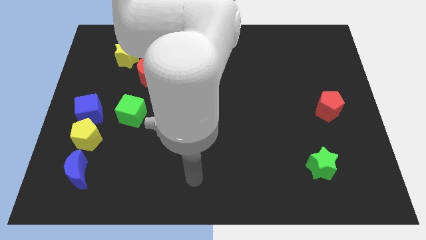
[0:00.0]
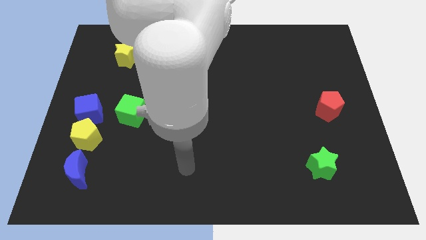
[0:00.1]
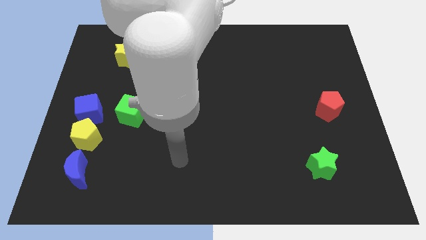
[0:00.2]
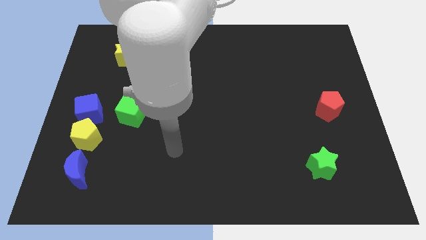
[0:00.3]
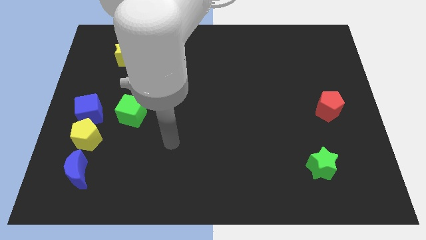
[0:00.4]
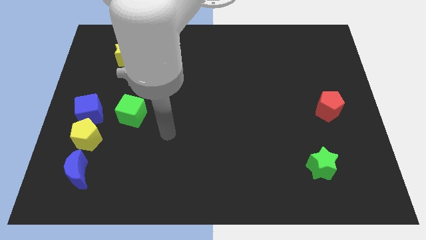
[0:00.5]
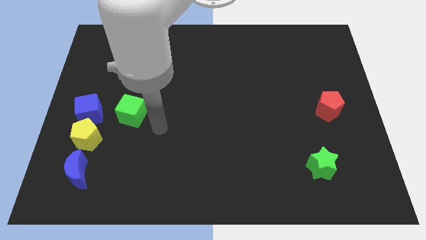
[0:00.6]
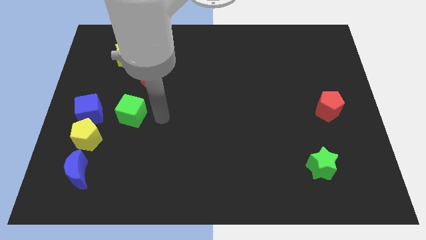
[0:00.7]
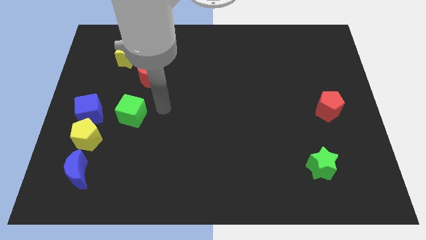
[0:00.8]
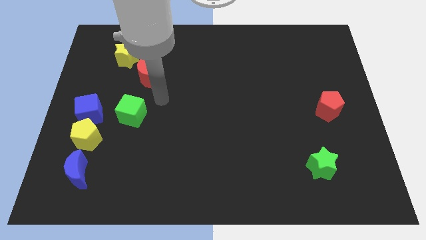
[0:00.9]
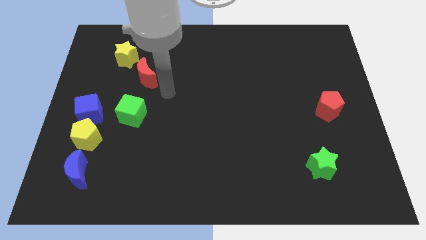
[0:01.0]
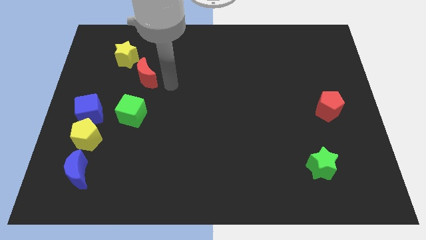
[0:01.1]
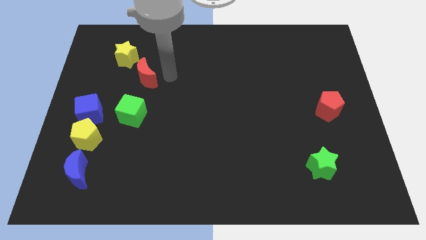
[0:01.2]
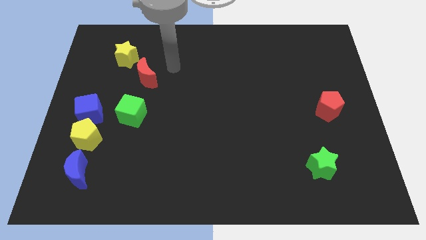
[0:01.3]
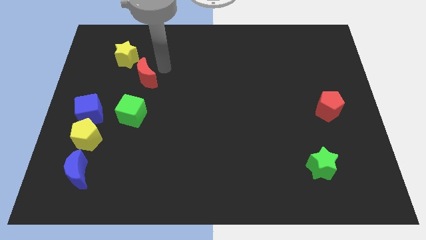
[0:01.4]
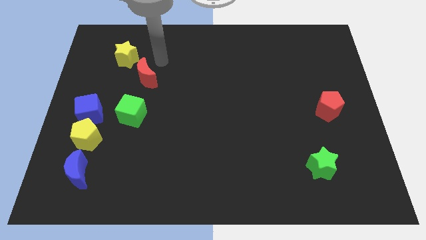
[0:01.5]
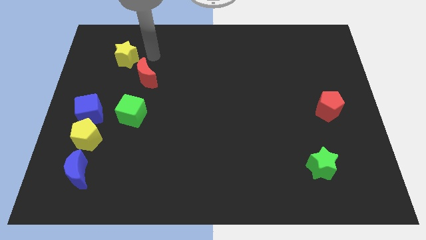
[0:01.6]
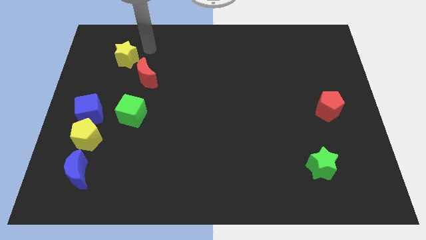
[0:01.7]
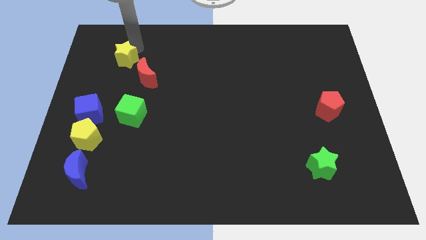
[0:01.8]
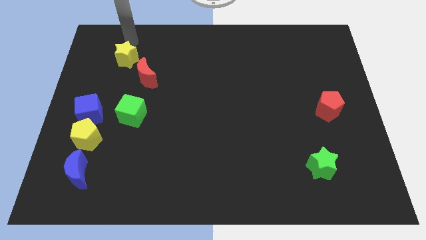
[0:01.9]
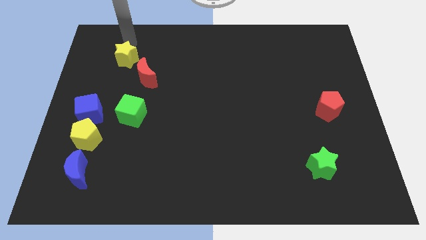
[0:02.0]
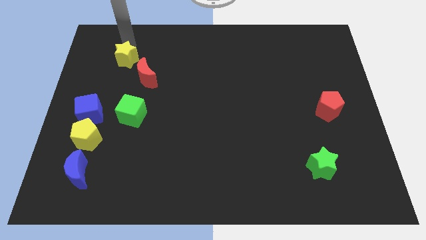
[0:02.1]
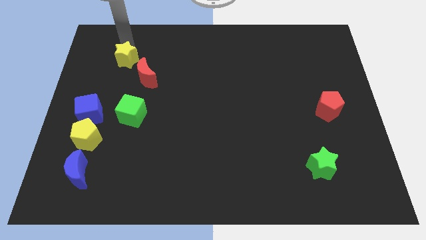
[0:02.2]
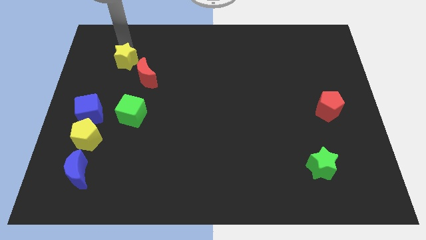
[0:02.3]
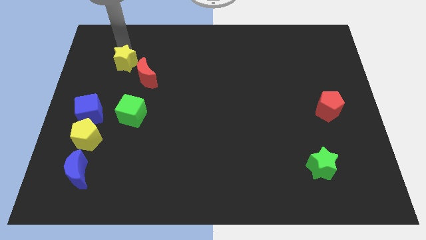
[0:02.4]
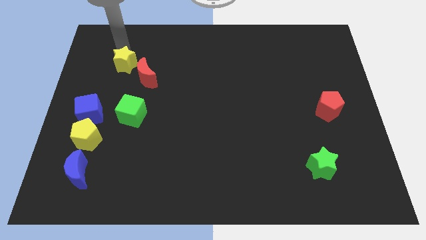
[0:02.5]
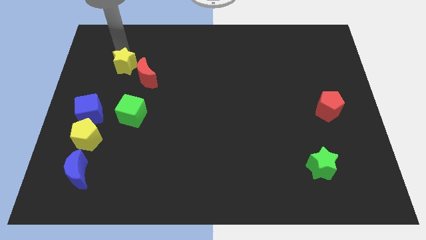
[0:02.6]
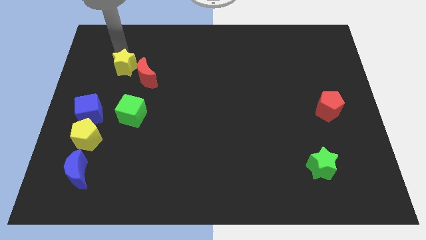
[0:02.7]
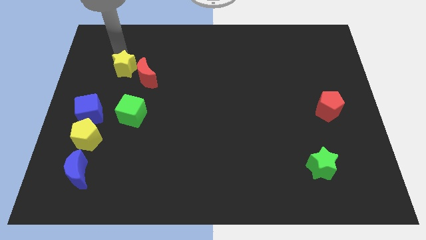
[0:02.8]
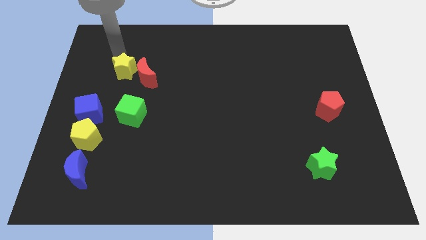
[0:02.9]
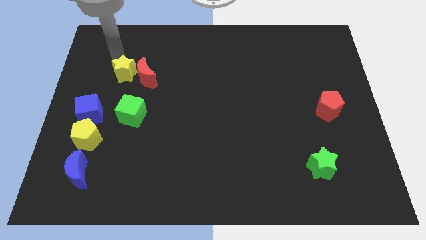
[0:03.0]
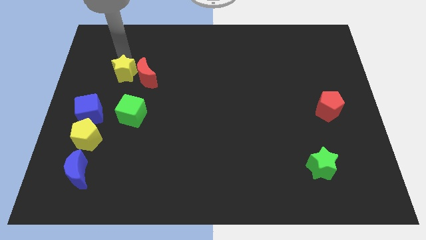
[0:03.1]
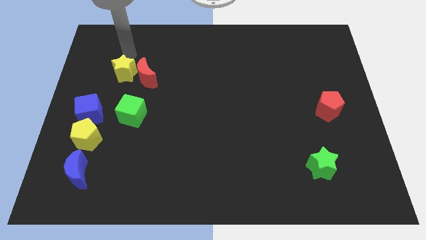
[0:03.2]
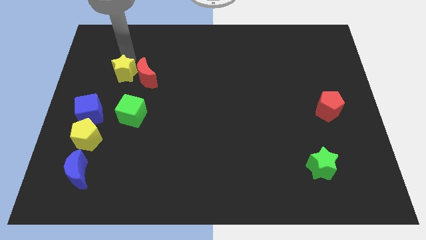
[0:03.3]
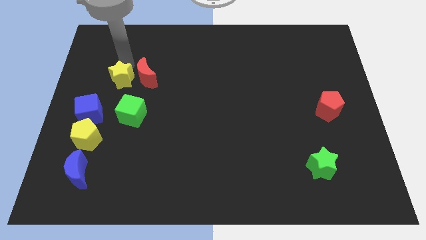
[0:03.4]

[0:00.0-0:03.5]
push the yellow star downwards a little

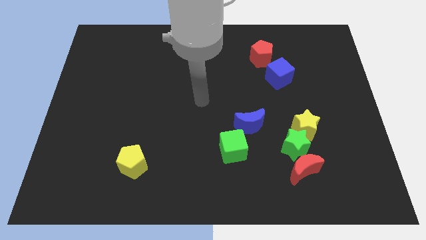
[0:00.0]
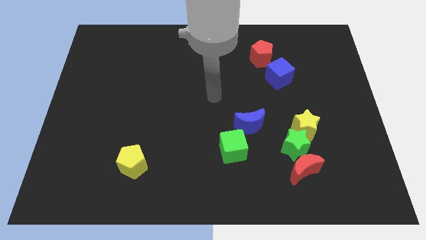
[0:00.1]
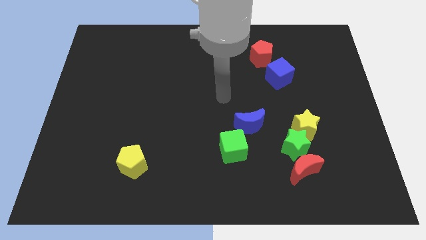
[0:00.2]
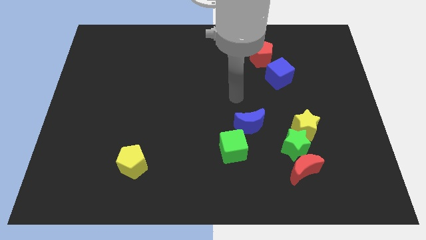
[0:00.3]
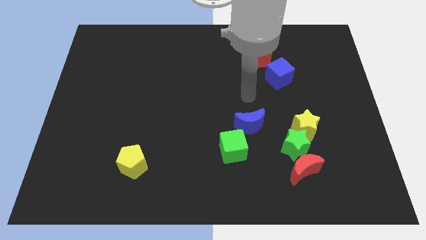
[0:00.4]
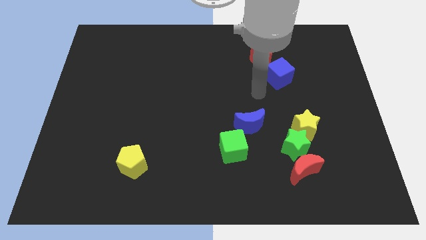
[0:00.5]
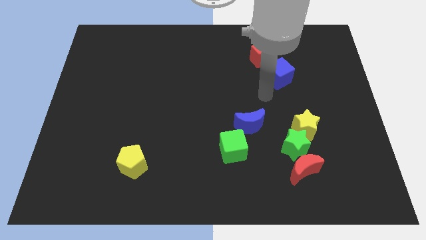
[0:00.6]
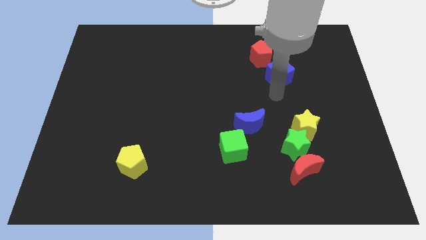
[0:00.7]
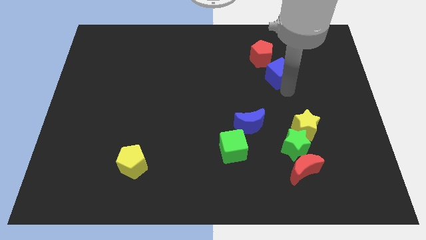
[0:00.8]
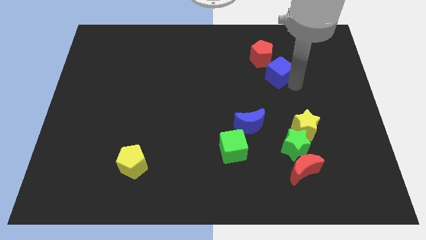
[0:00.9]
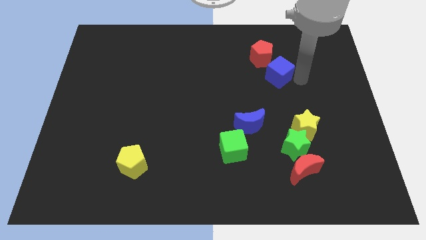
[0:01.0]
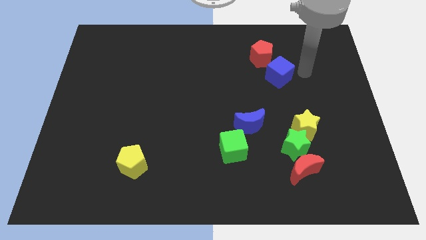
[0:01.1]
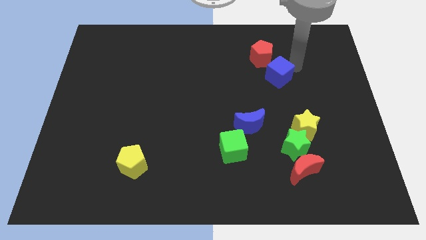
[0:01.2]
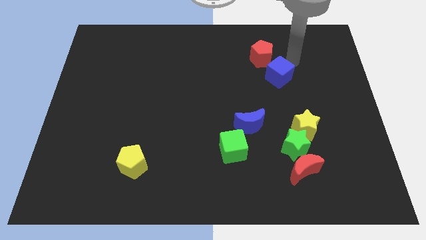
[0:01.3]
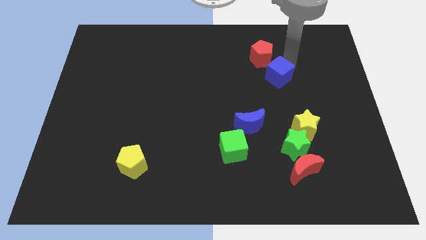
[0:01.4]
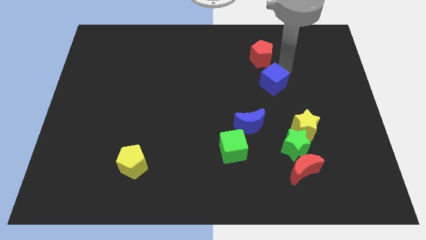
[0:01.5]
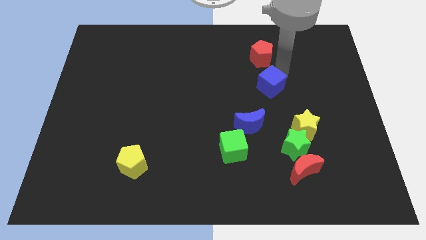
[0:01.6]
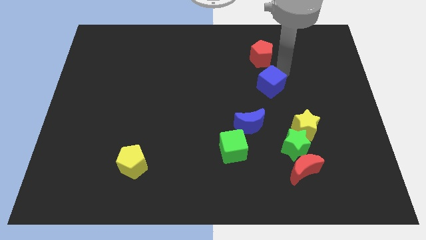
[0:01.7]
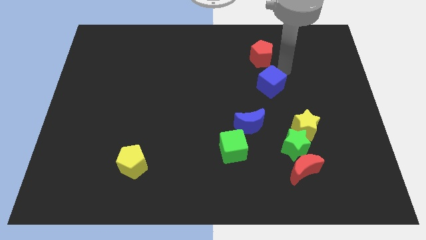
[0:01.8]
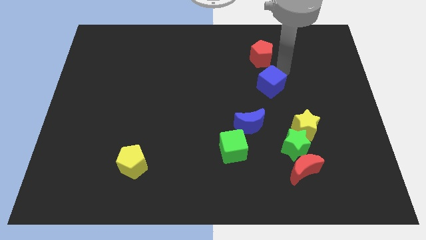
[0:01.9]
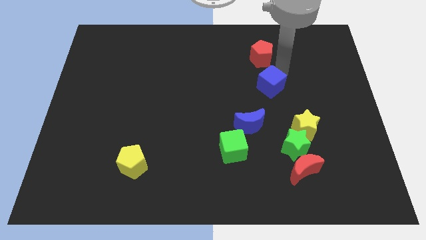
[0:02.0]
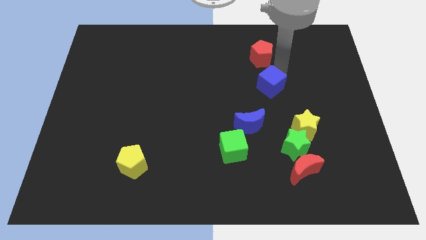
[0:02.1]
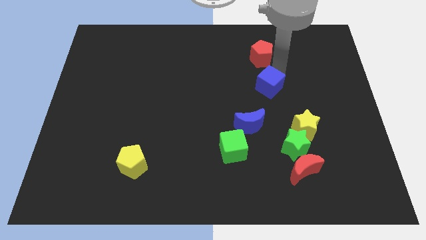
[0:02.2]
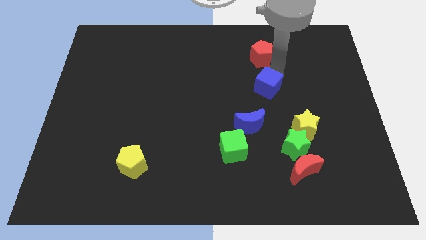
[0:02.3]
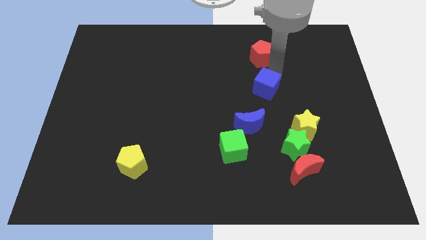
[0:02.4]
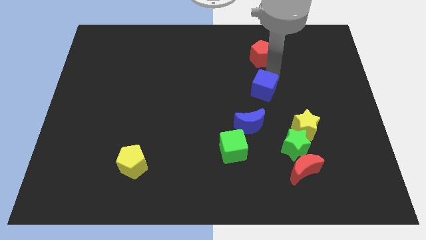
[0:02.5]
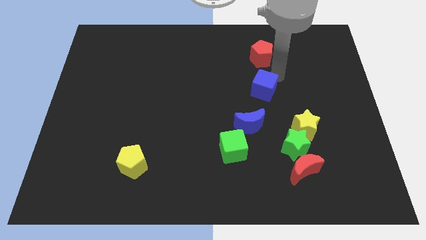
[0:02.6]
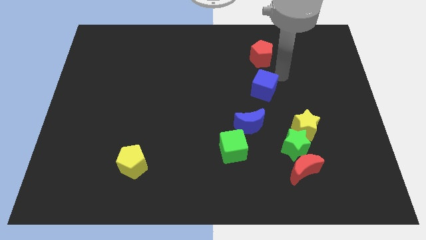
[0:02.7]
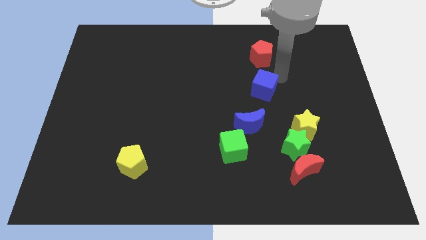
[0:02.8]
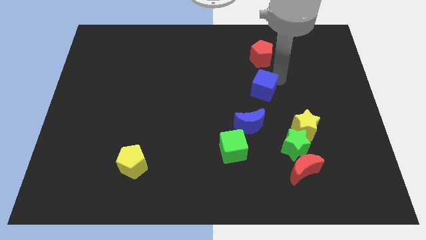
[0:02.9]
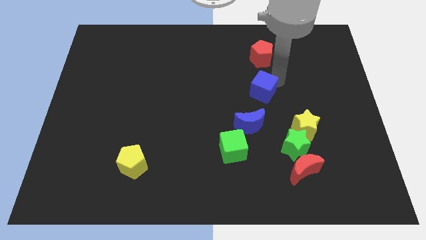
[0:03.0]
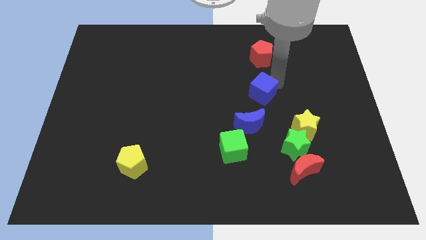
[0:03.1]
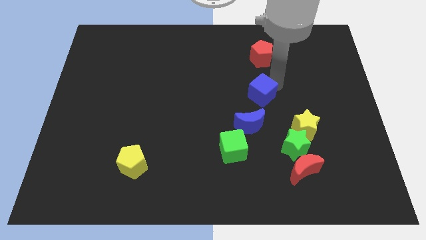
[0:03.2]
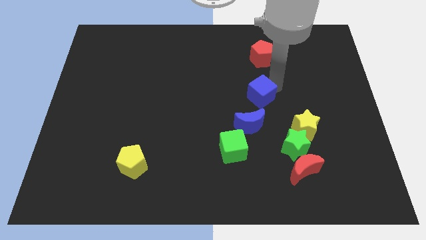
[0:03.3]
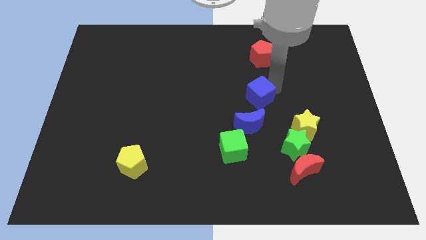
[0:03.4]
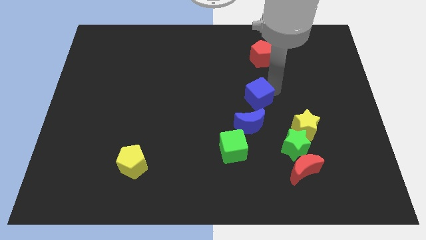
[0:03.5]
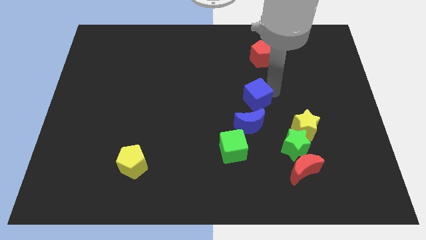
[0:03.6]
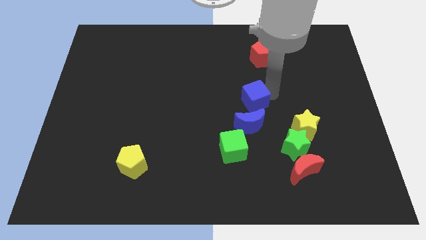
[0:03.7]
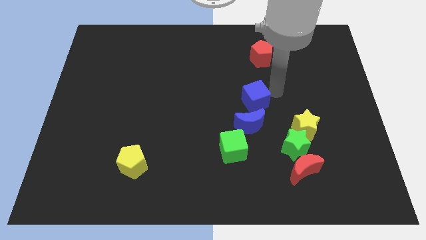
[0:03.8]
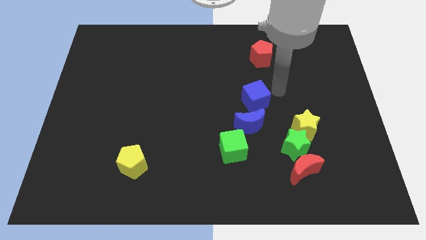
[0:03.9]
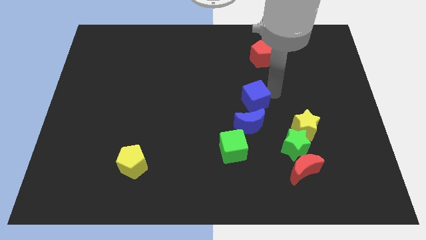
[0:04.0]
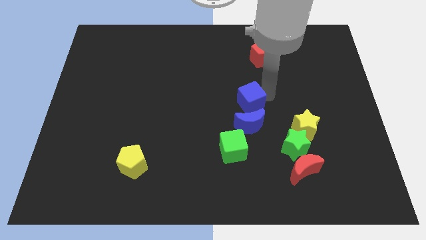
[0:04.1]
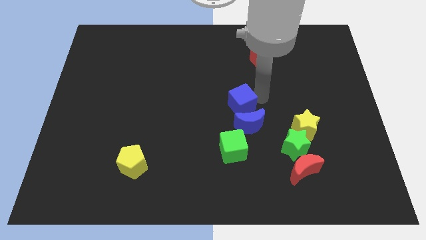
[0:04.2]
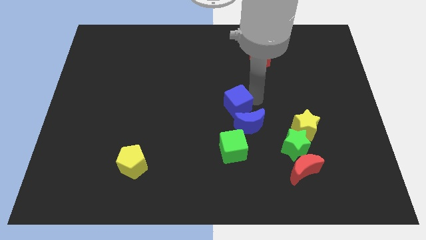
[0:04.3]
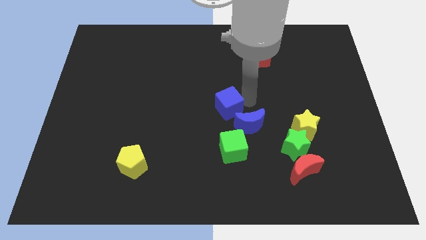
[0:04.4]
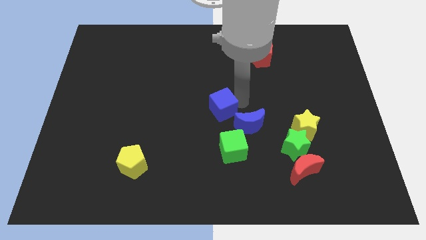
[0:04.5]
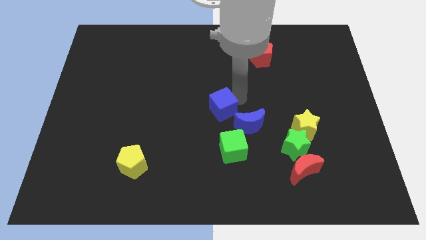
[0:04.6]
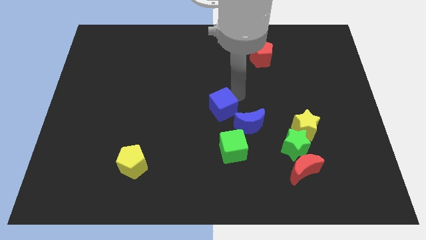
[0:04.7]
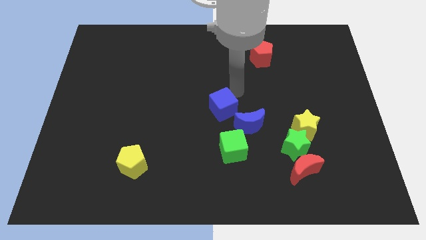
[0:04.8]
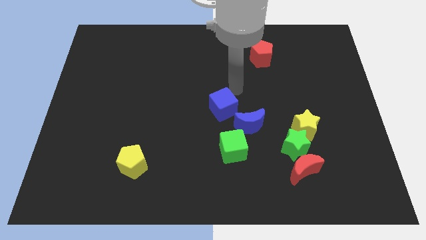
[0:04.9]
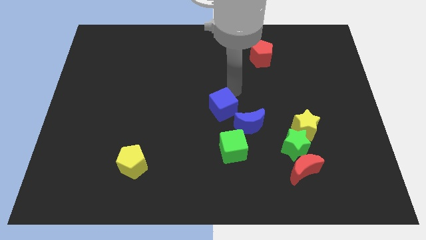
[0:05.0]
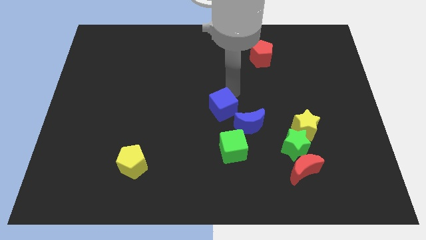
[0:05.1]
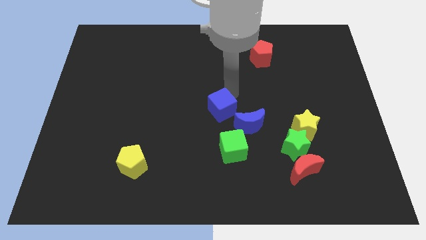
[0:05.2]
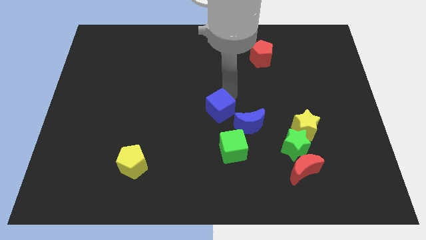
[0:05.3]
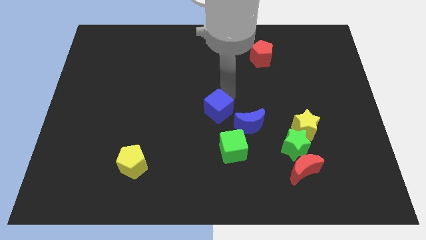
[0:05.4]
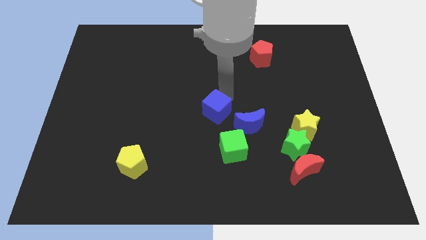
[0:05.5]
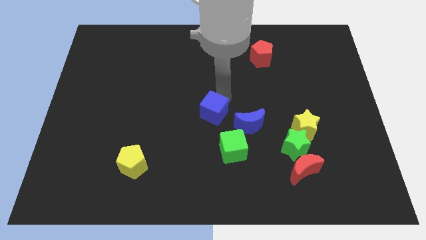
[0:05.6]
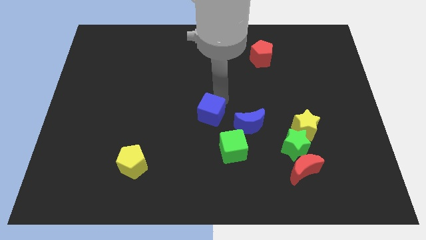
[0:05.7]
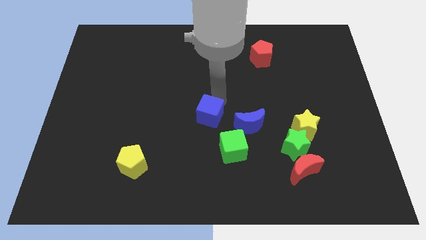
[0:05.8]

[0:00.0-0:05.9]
slide the blue cube diagonally downwards and to the left
